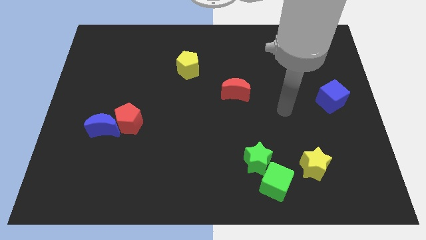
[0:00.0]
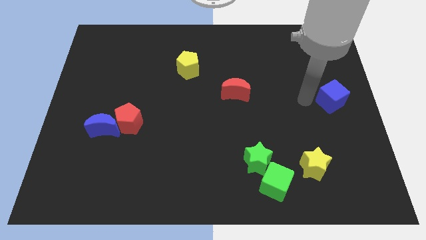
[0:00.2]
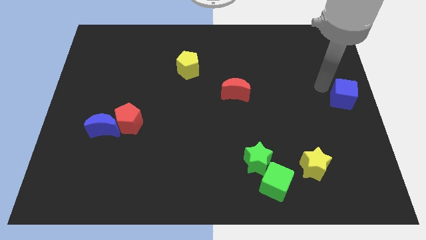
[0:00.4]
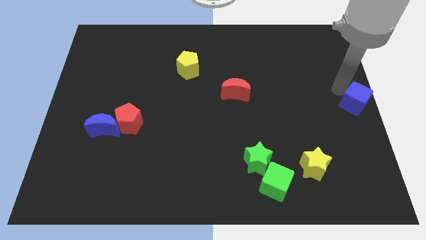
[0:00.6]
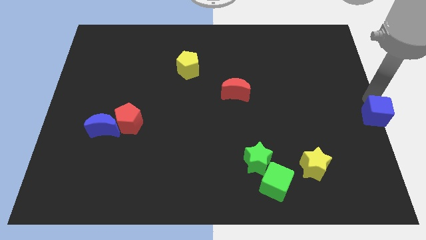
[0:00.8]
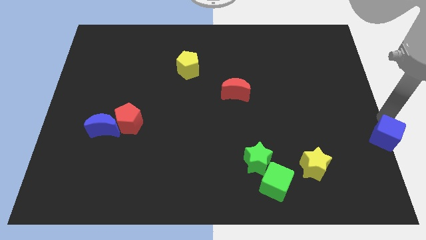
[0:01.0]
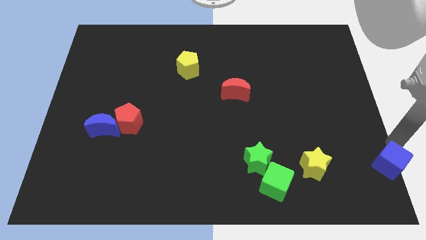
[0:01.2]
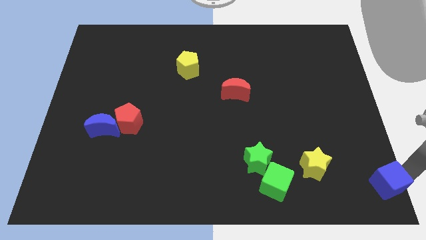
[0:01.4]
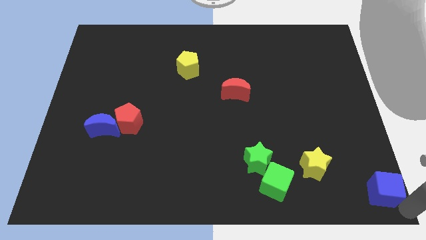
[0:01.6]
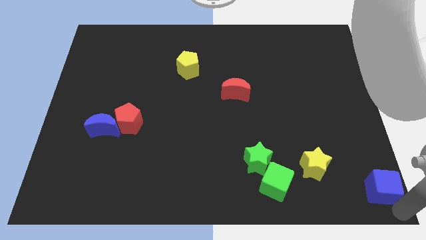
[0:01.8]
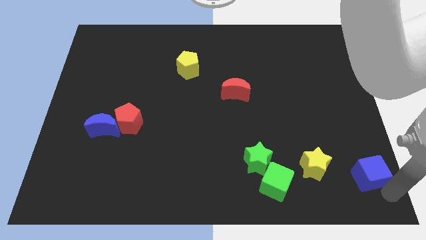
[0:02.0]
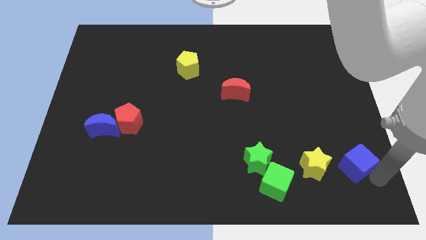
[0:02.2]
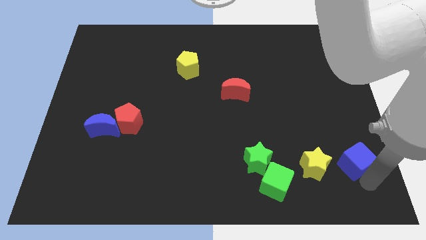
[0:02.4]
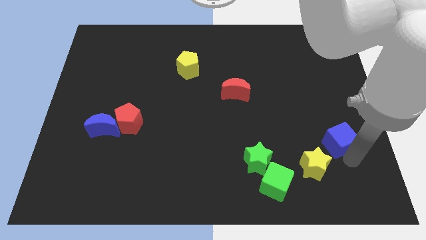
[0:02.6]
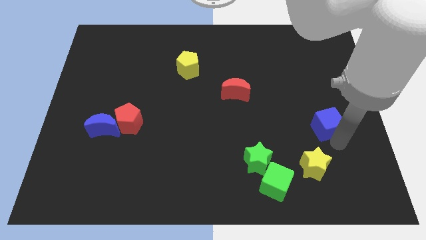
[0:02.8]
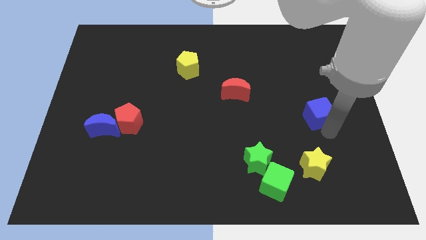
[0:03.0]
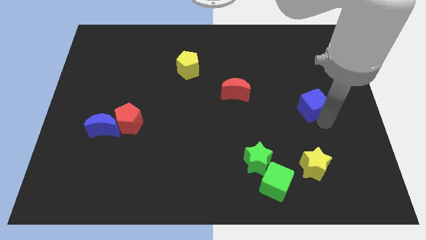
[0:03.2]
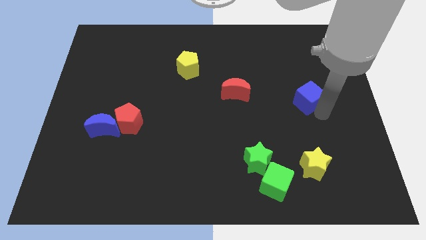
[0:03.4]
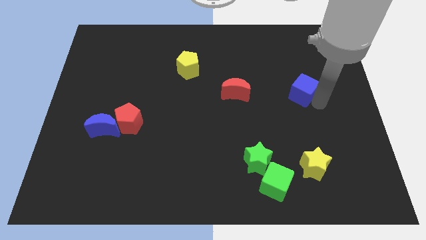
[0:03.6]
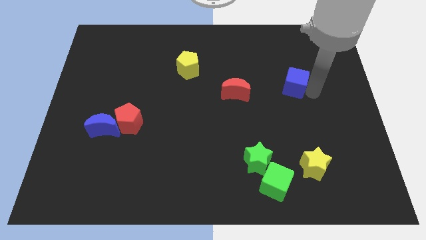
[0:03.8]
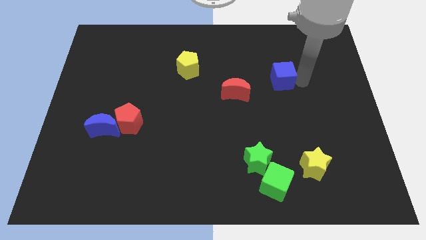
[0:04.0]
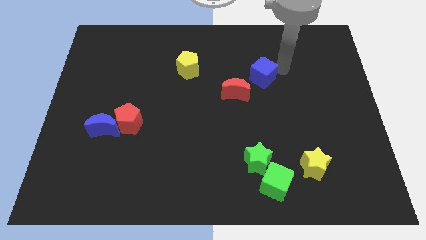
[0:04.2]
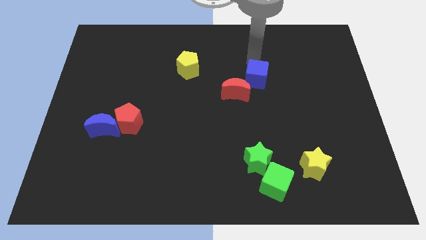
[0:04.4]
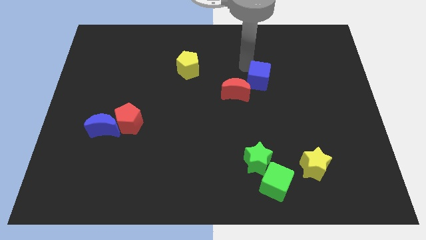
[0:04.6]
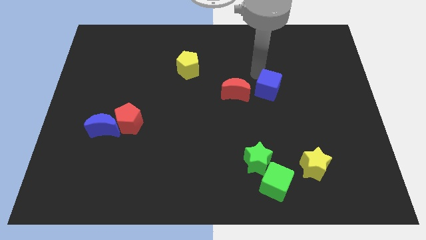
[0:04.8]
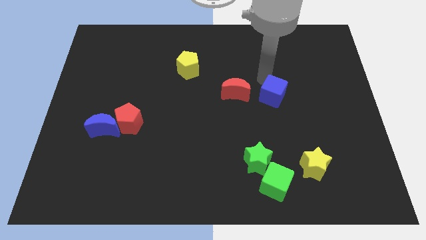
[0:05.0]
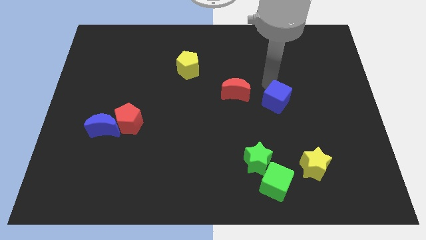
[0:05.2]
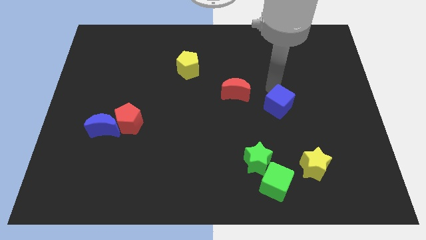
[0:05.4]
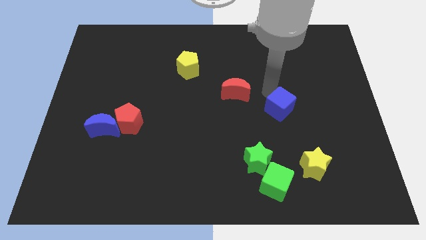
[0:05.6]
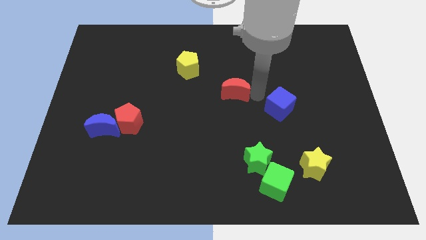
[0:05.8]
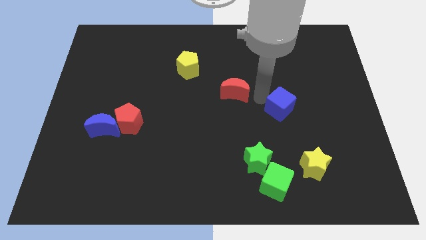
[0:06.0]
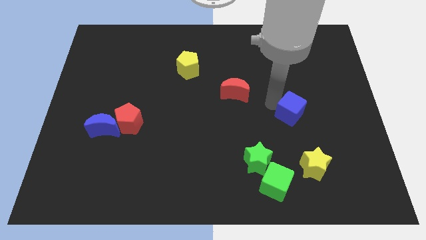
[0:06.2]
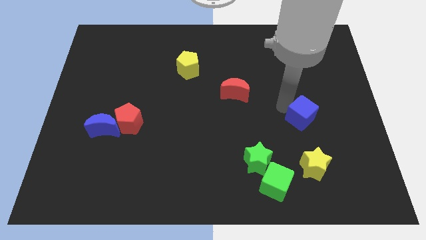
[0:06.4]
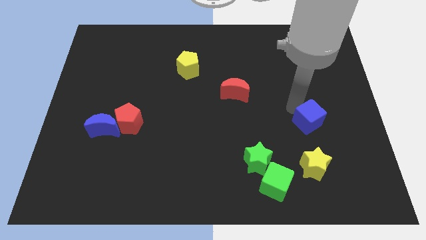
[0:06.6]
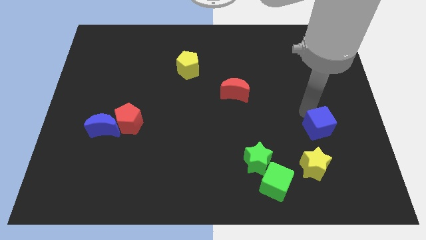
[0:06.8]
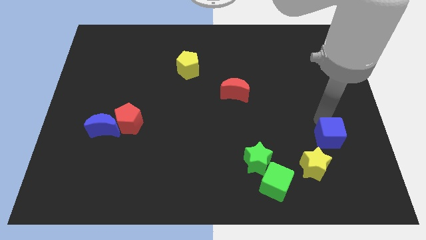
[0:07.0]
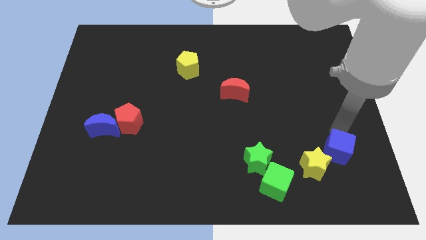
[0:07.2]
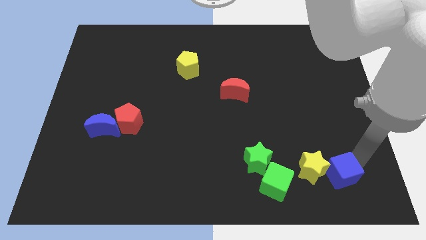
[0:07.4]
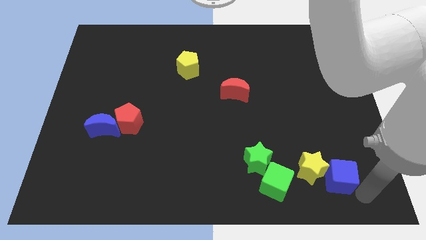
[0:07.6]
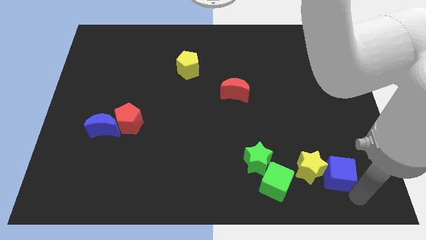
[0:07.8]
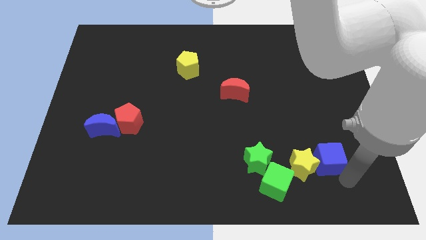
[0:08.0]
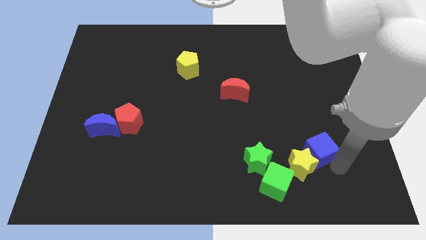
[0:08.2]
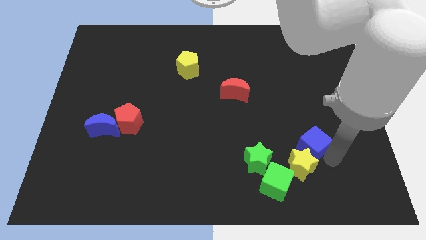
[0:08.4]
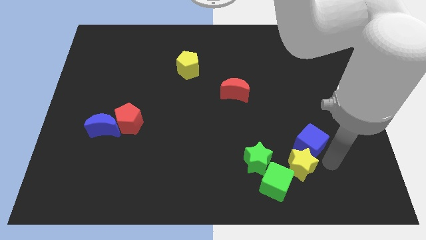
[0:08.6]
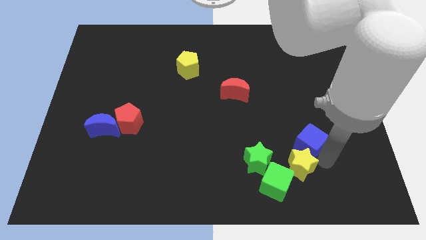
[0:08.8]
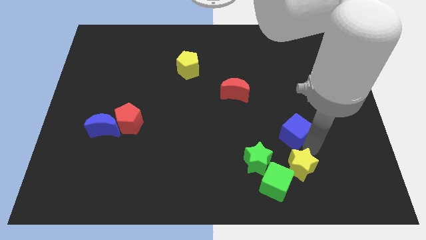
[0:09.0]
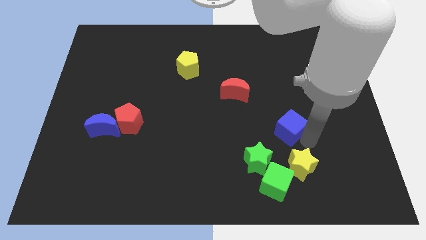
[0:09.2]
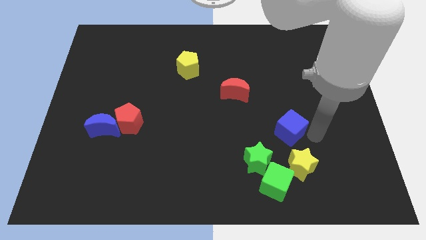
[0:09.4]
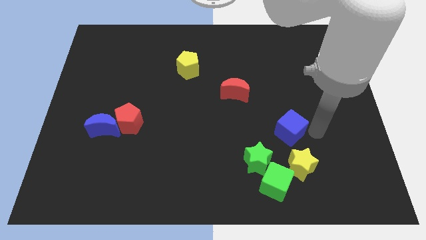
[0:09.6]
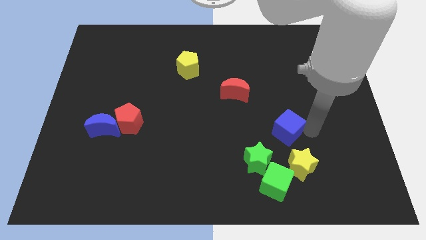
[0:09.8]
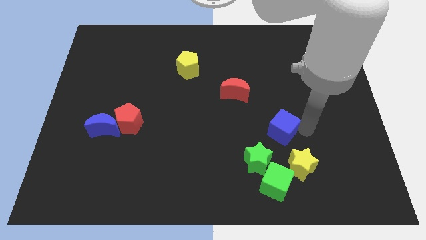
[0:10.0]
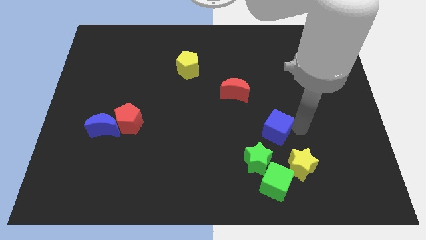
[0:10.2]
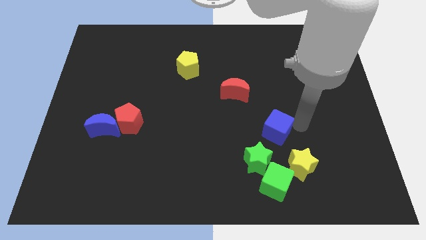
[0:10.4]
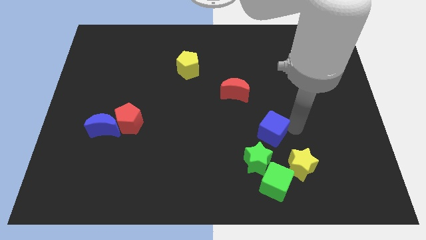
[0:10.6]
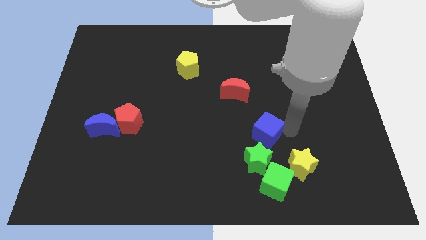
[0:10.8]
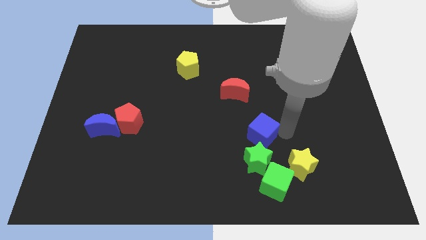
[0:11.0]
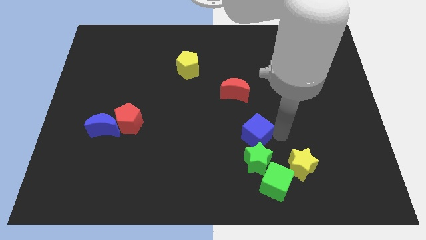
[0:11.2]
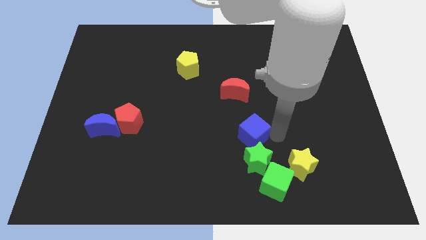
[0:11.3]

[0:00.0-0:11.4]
slide the blue cube to the top left side of the green star

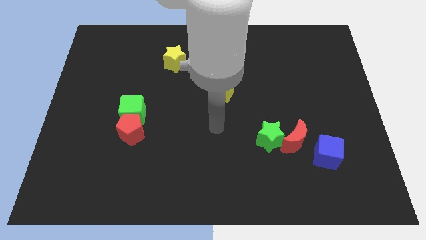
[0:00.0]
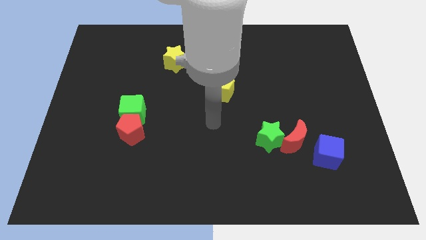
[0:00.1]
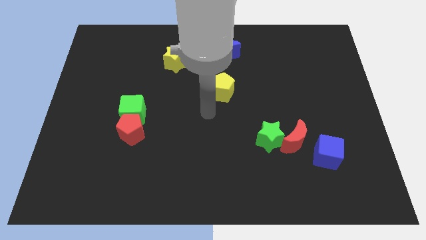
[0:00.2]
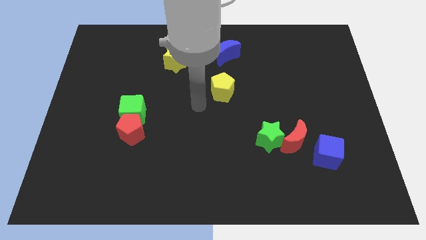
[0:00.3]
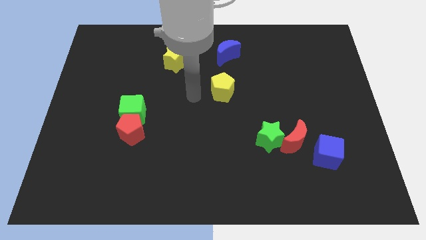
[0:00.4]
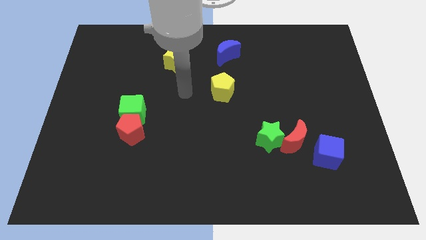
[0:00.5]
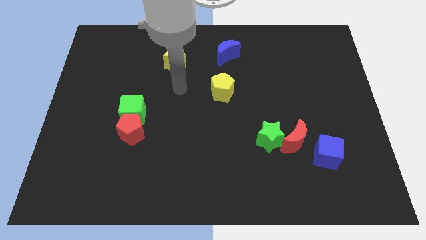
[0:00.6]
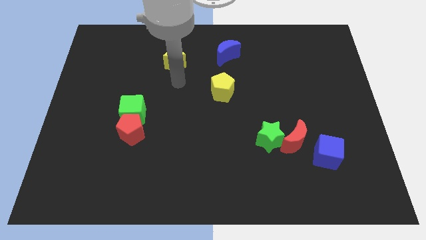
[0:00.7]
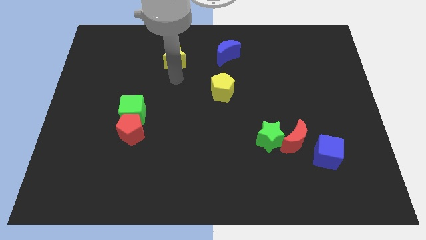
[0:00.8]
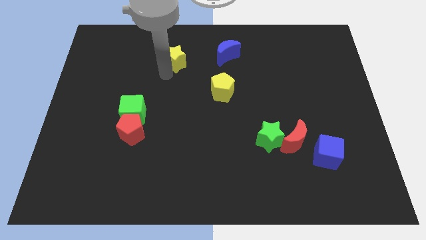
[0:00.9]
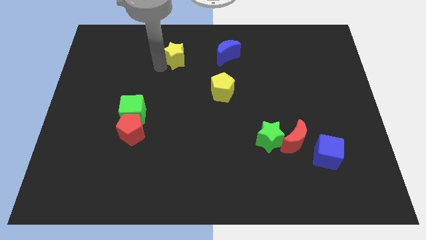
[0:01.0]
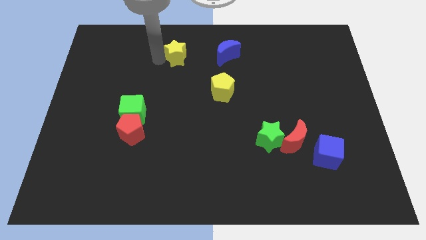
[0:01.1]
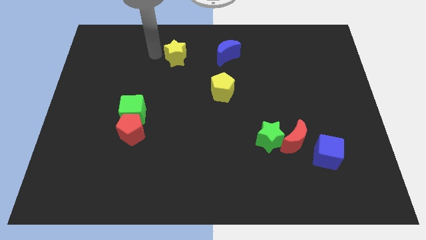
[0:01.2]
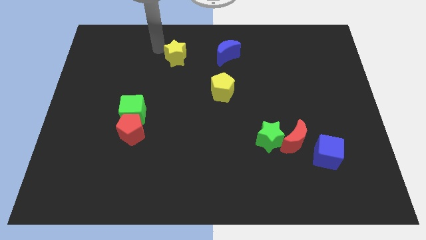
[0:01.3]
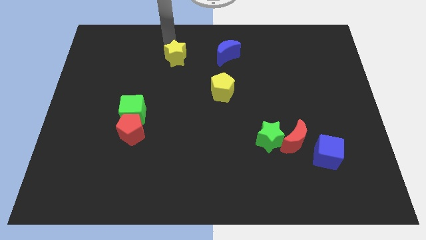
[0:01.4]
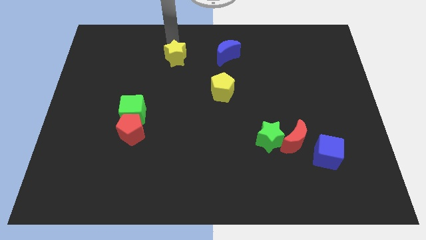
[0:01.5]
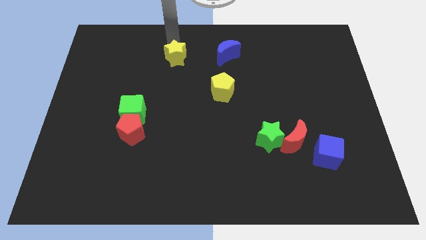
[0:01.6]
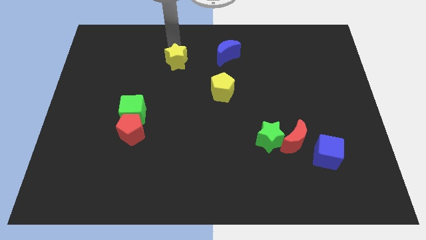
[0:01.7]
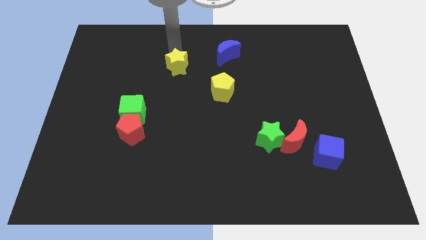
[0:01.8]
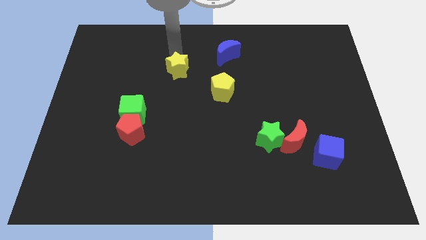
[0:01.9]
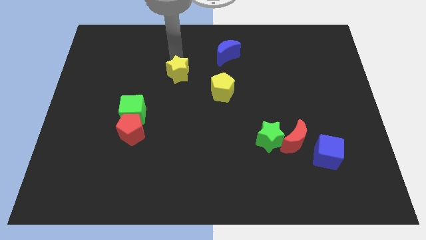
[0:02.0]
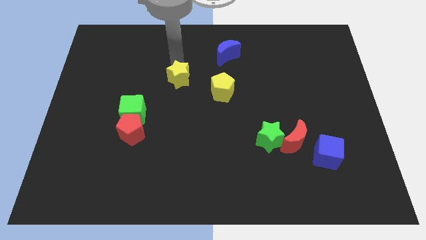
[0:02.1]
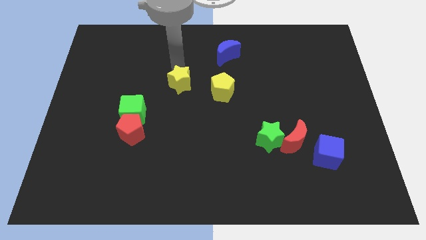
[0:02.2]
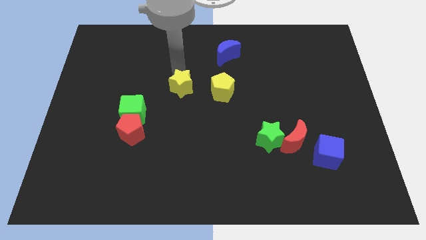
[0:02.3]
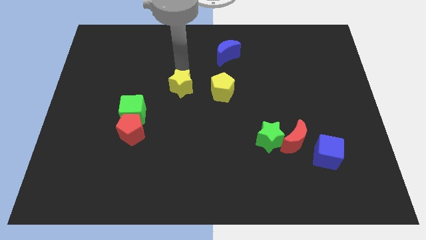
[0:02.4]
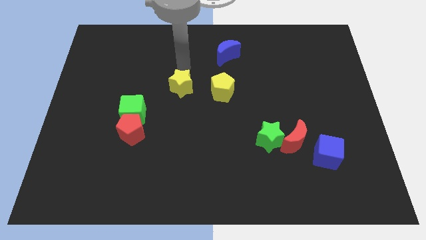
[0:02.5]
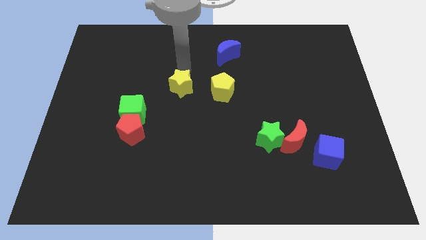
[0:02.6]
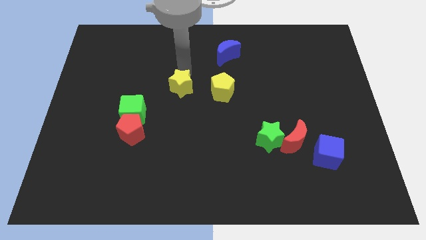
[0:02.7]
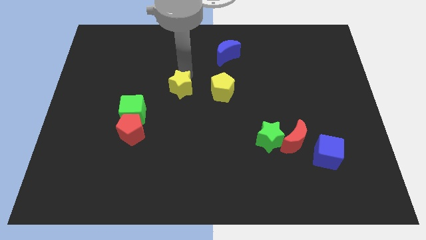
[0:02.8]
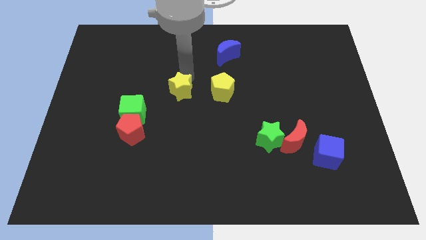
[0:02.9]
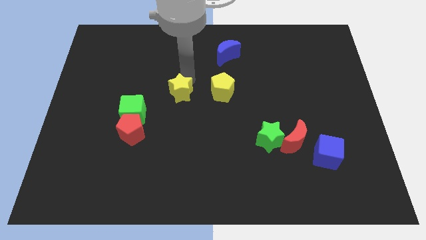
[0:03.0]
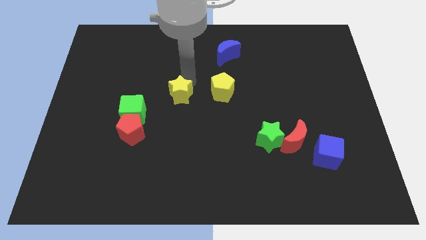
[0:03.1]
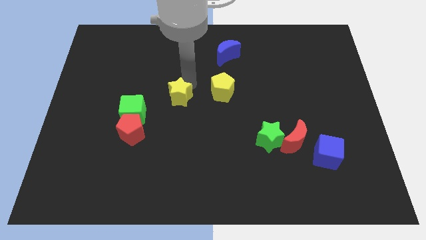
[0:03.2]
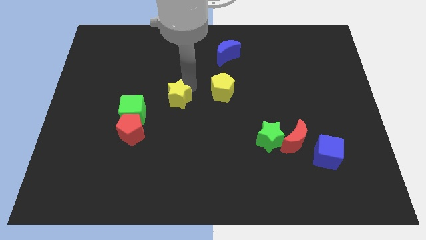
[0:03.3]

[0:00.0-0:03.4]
push the yellow star to the right of the green cube
